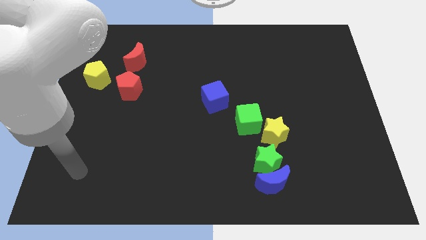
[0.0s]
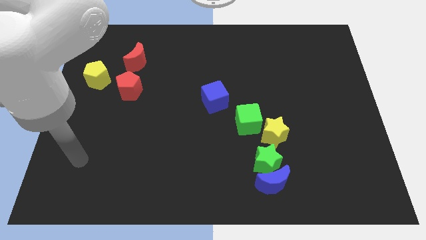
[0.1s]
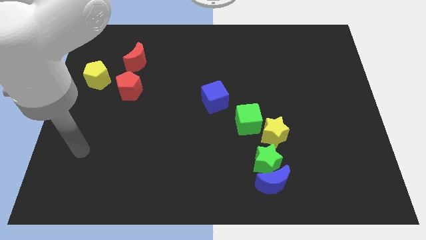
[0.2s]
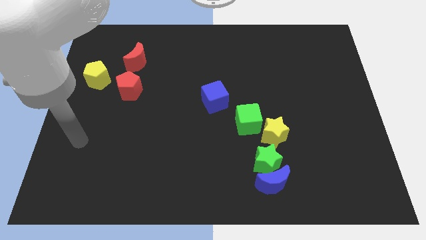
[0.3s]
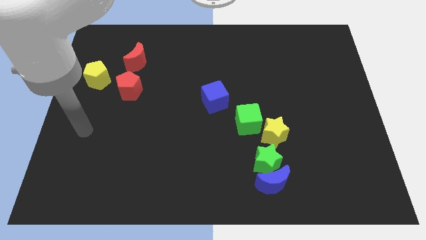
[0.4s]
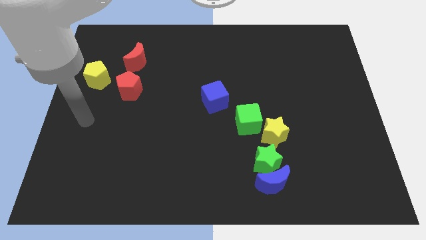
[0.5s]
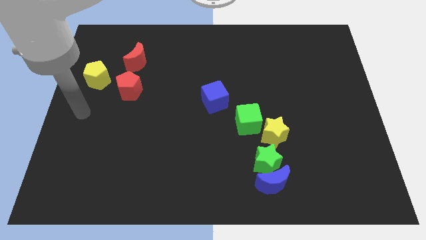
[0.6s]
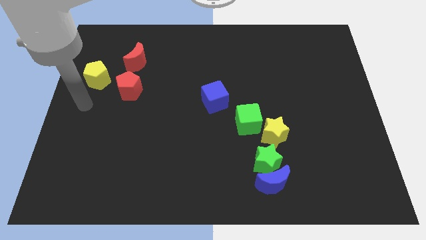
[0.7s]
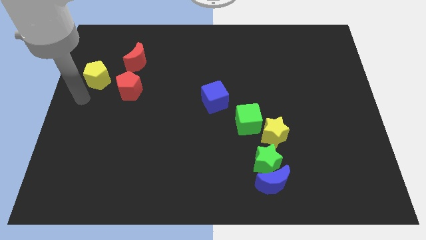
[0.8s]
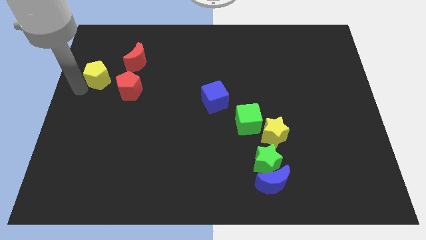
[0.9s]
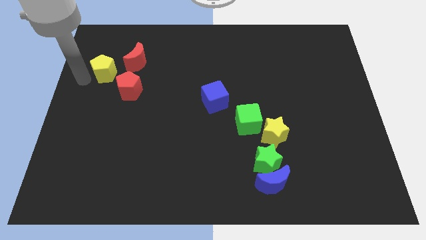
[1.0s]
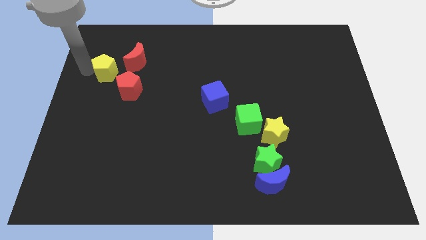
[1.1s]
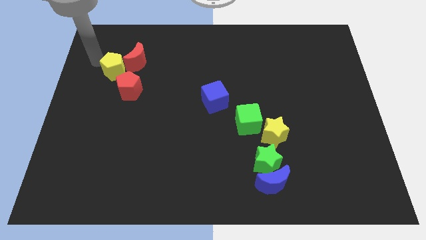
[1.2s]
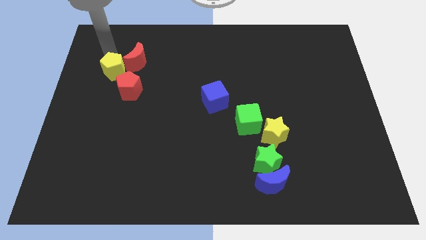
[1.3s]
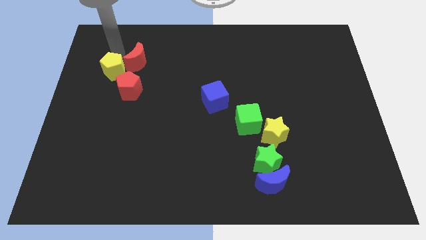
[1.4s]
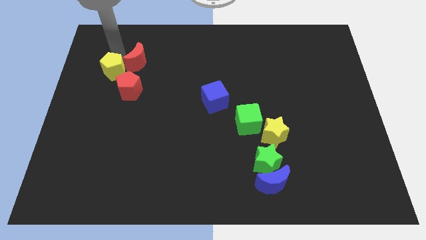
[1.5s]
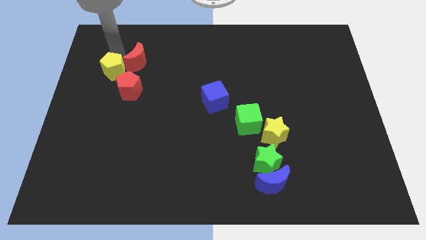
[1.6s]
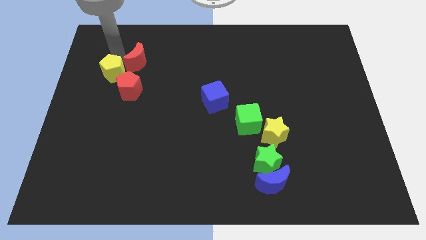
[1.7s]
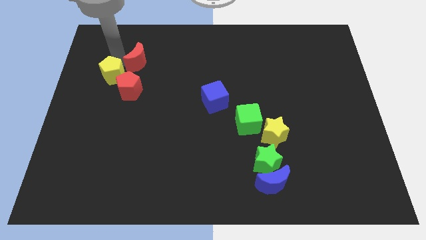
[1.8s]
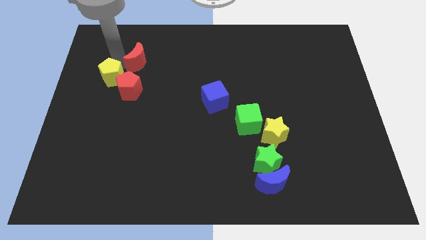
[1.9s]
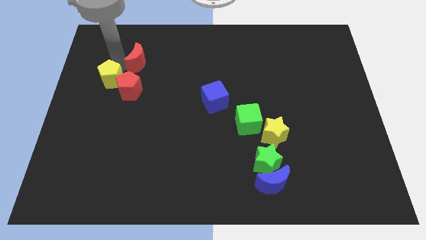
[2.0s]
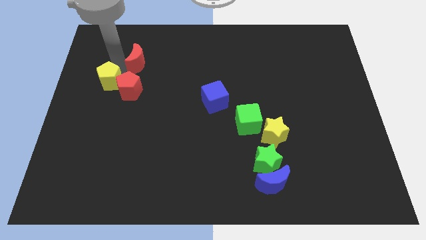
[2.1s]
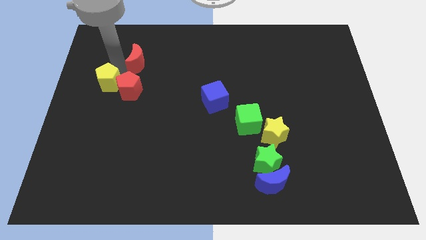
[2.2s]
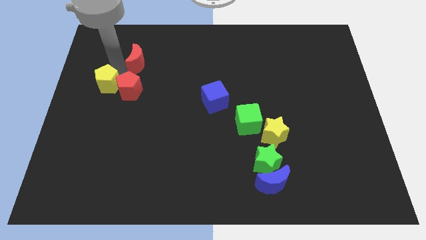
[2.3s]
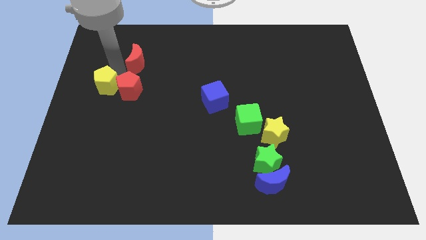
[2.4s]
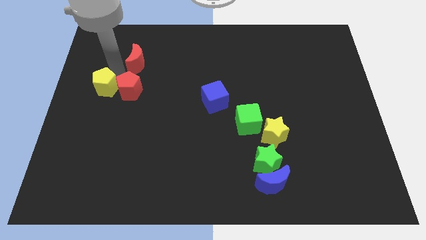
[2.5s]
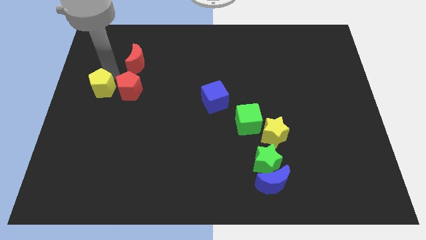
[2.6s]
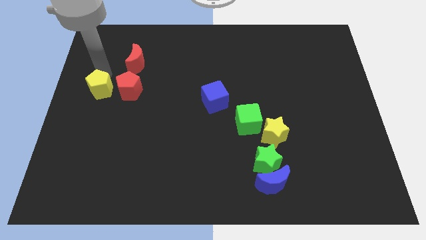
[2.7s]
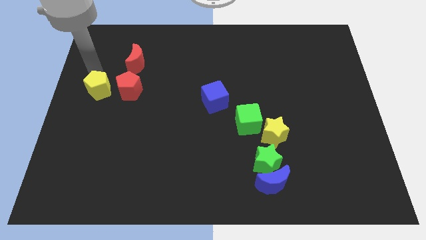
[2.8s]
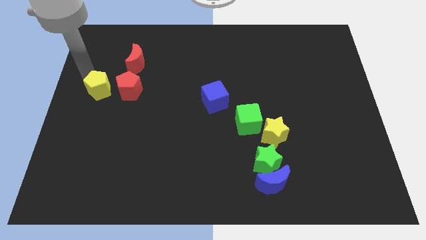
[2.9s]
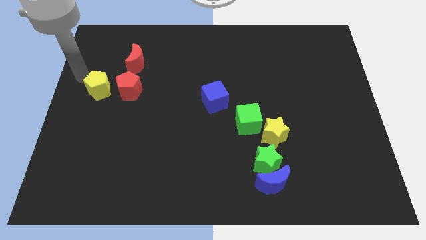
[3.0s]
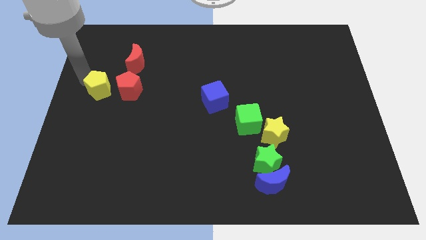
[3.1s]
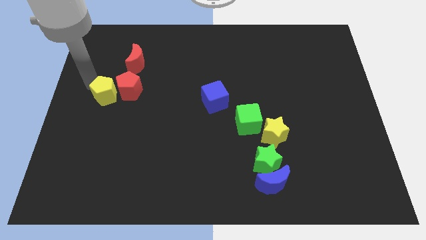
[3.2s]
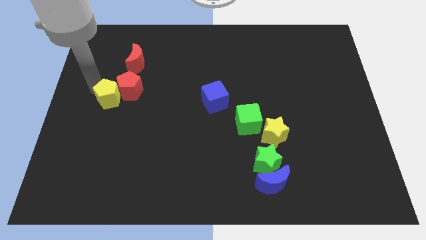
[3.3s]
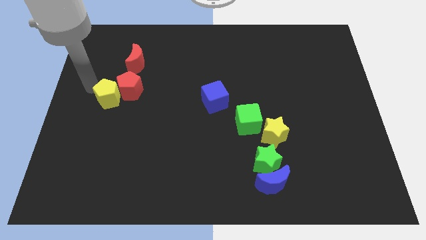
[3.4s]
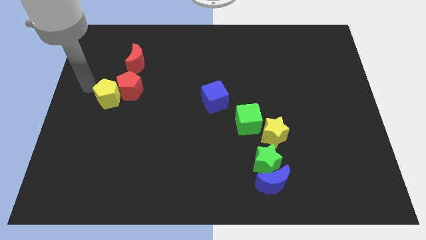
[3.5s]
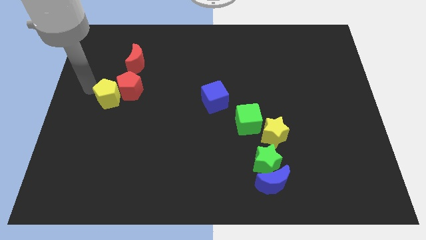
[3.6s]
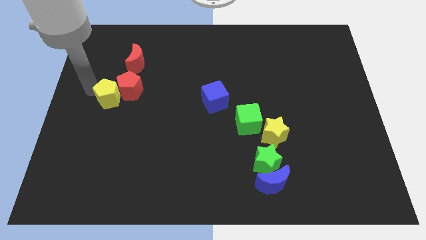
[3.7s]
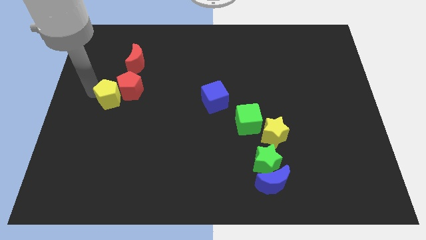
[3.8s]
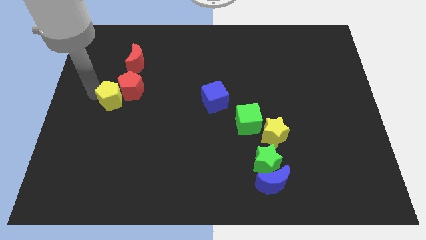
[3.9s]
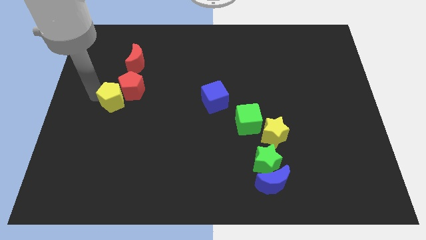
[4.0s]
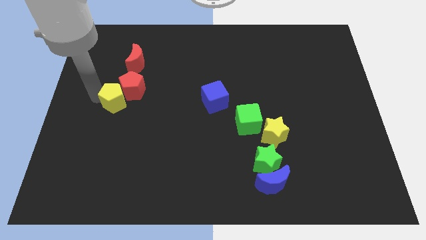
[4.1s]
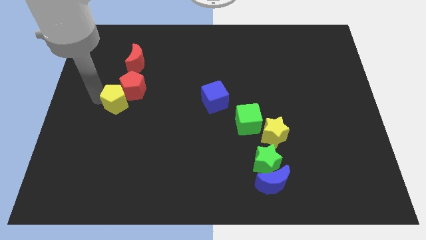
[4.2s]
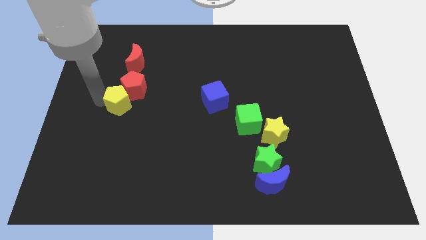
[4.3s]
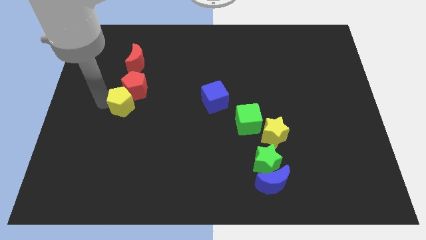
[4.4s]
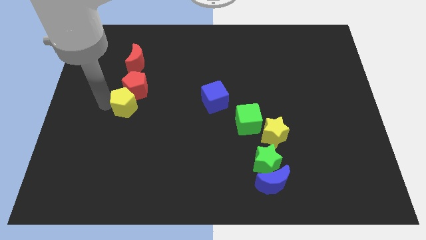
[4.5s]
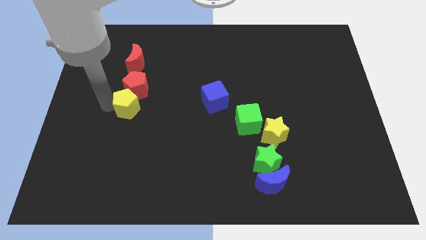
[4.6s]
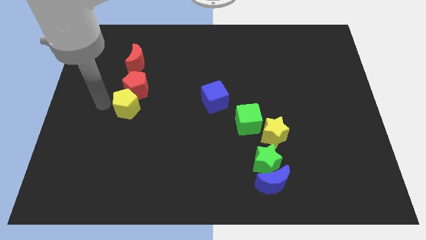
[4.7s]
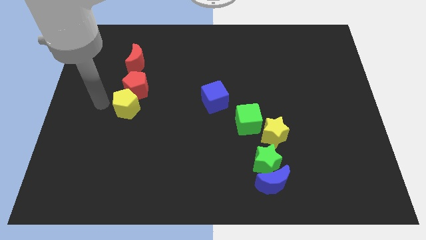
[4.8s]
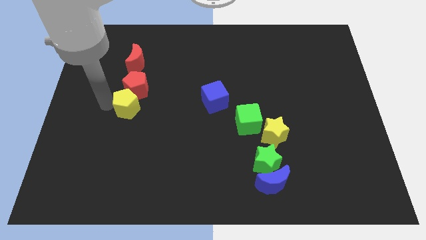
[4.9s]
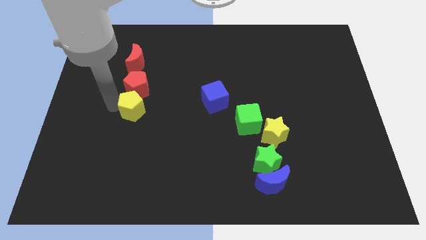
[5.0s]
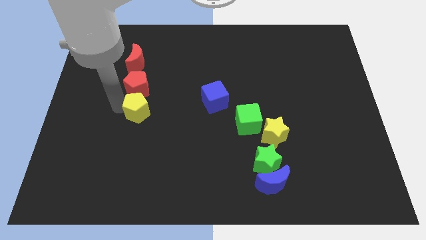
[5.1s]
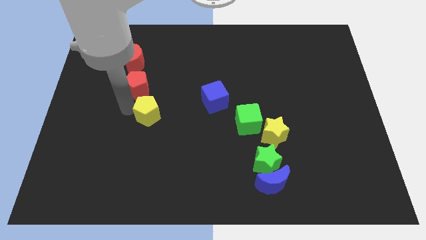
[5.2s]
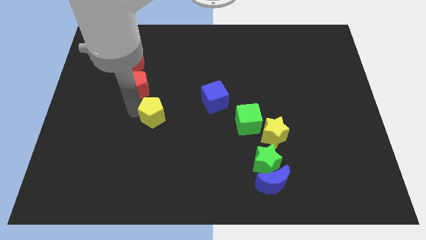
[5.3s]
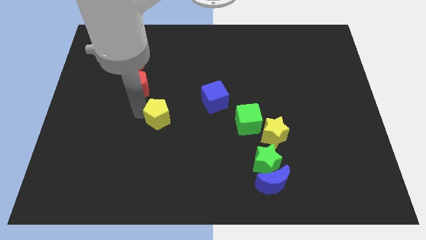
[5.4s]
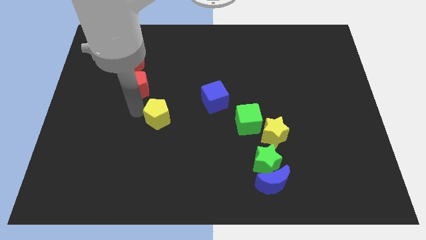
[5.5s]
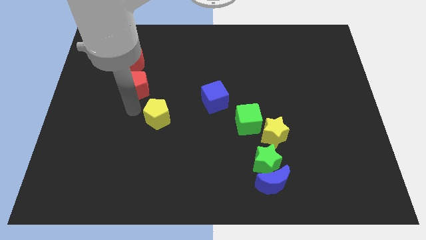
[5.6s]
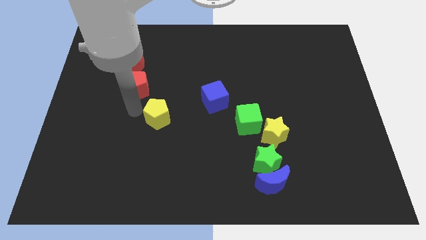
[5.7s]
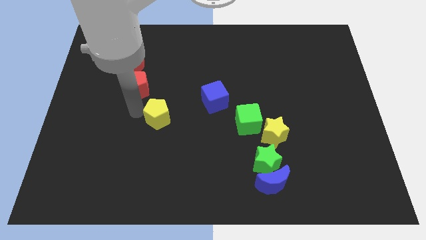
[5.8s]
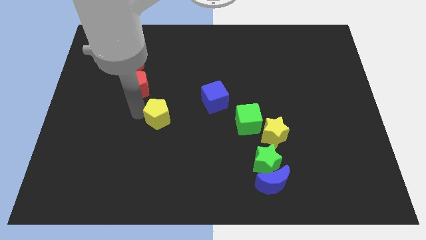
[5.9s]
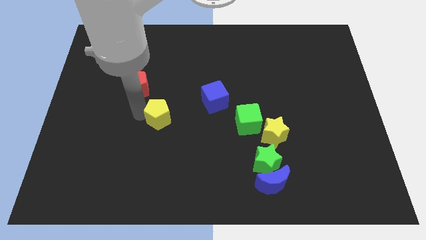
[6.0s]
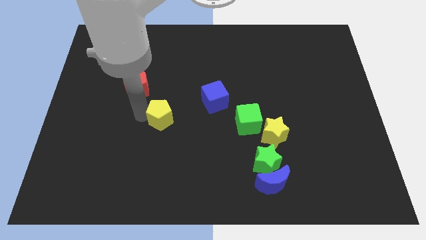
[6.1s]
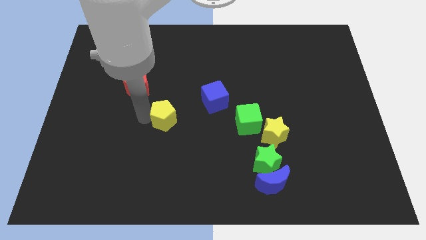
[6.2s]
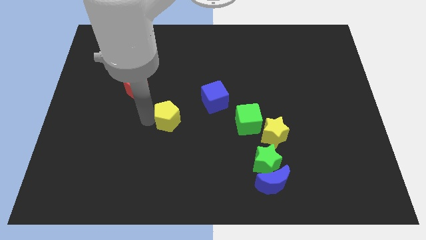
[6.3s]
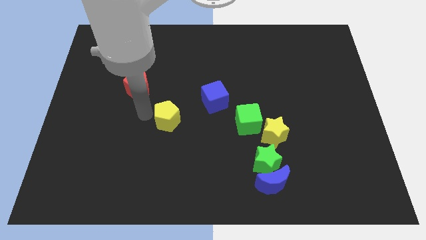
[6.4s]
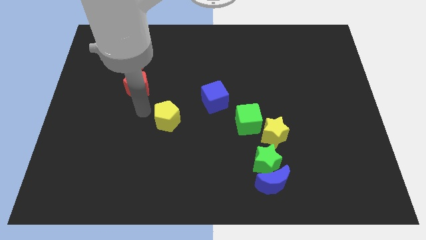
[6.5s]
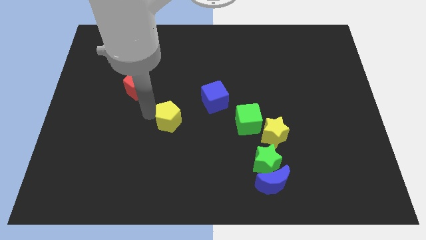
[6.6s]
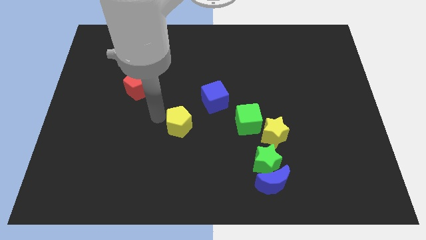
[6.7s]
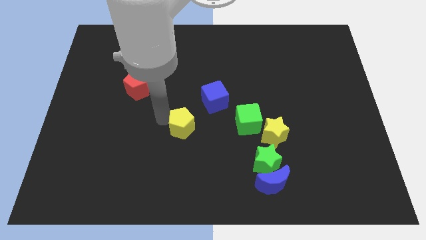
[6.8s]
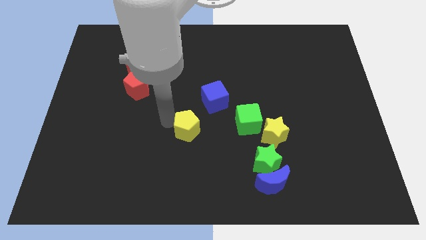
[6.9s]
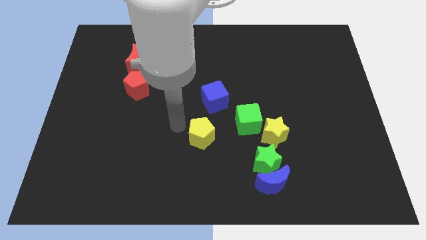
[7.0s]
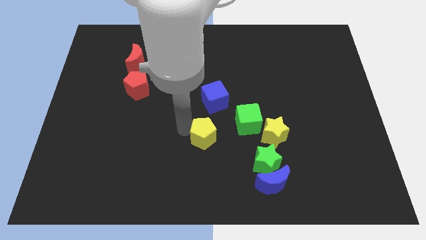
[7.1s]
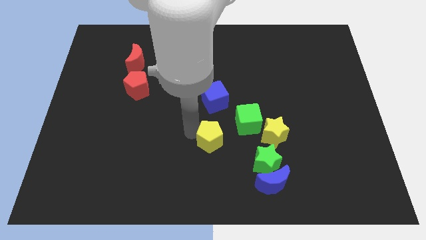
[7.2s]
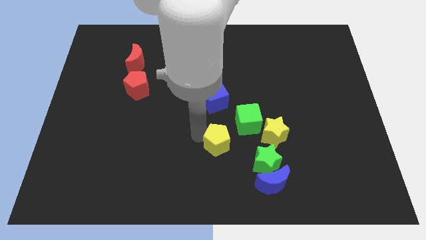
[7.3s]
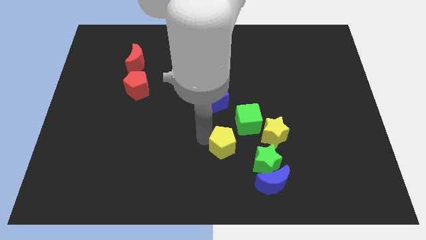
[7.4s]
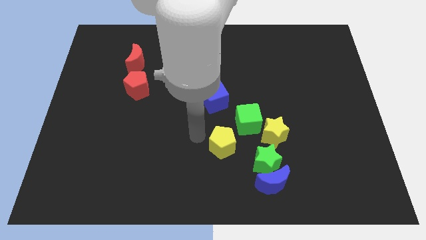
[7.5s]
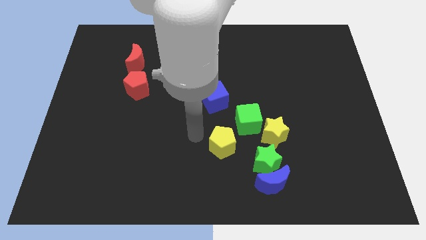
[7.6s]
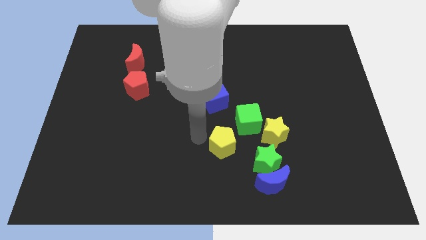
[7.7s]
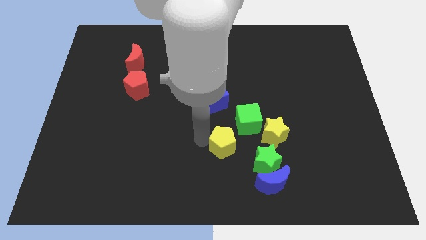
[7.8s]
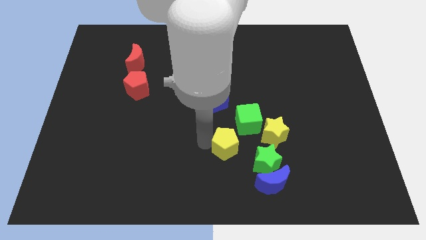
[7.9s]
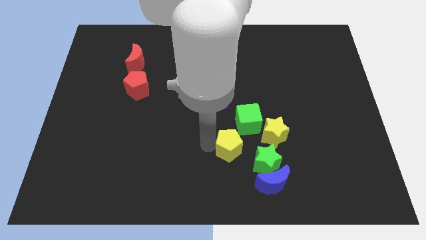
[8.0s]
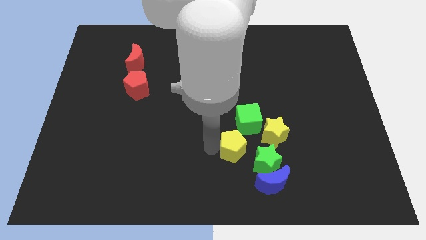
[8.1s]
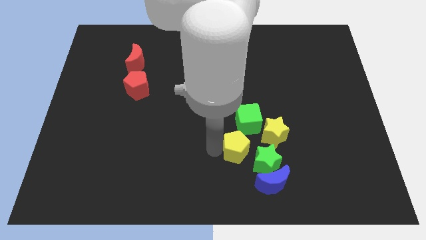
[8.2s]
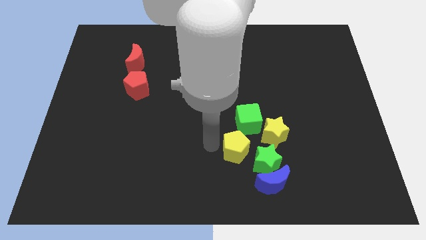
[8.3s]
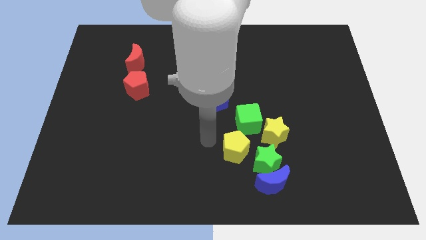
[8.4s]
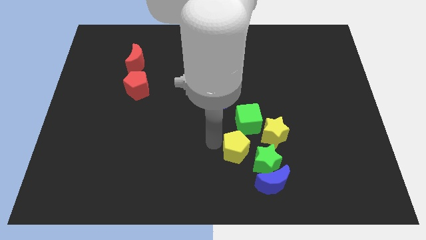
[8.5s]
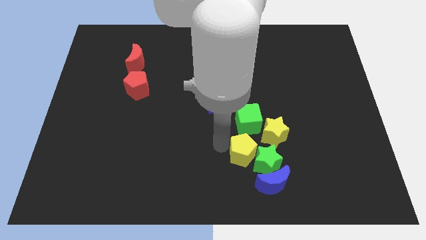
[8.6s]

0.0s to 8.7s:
push the yellow pentagon close to the green star
